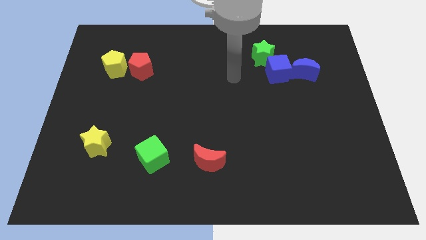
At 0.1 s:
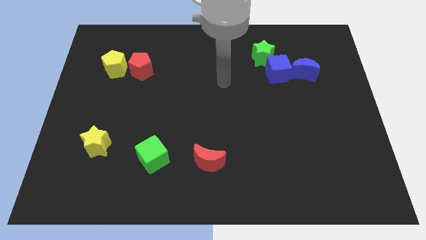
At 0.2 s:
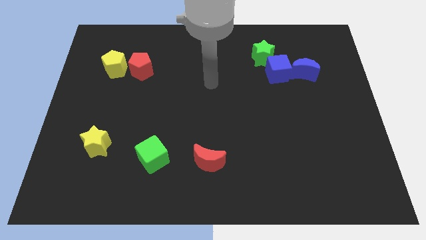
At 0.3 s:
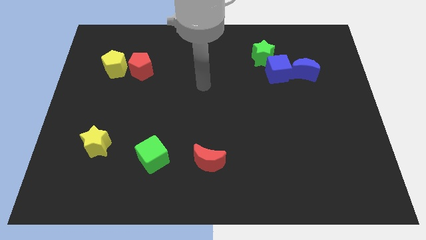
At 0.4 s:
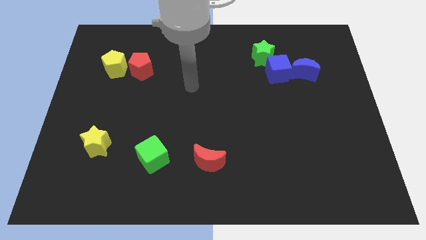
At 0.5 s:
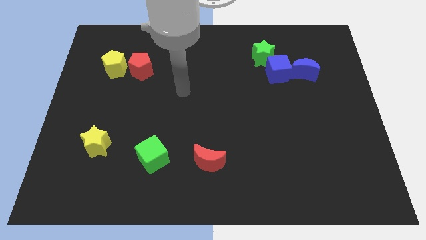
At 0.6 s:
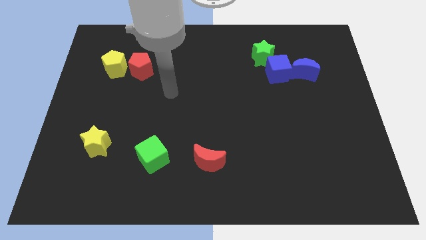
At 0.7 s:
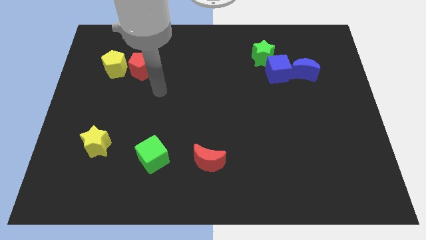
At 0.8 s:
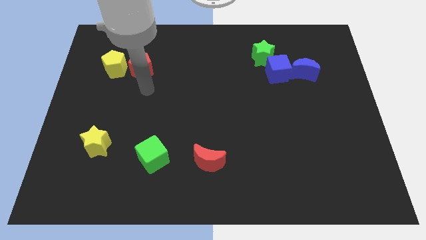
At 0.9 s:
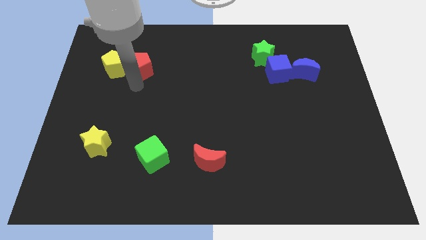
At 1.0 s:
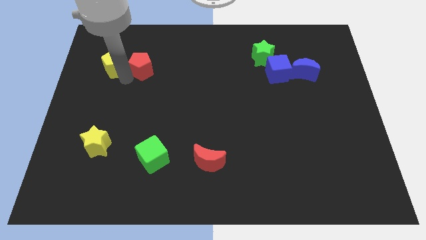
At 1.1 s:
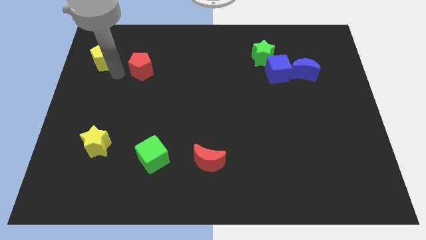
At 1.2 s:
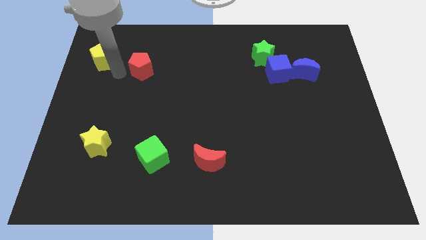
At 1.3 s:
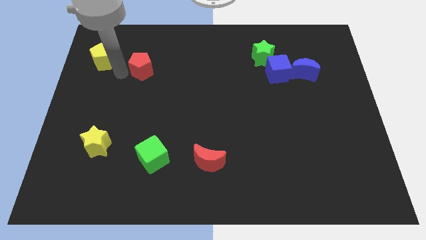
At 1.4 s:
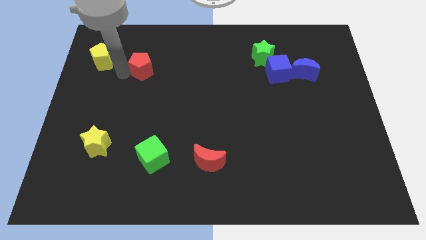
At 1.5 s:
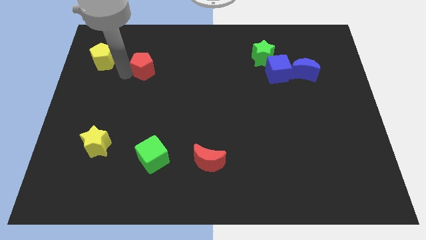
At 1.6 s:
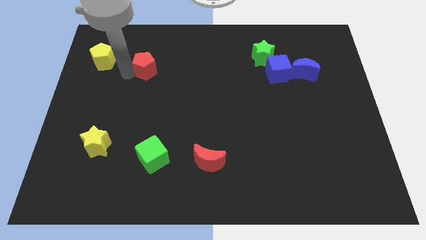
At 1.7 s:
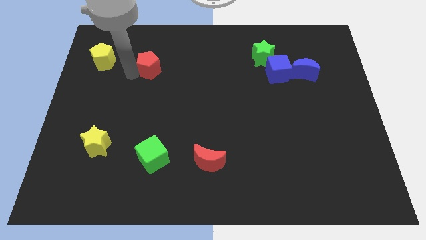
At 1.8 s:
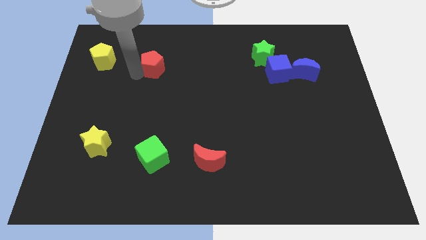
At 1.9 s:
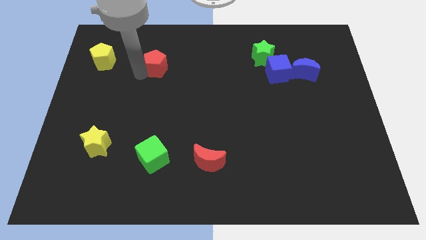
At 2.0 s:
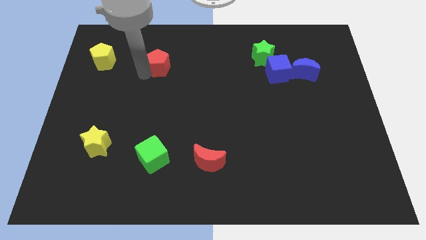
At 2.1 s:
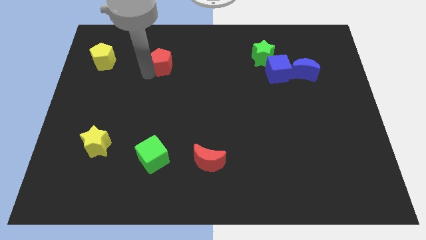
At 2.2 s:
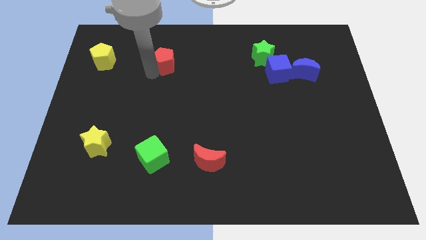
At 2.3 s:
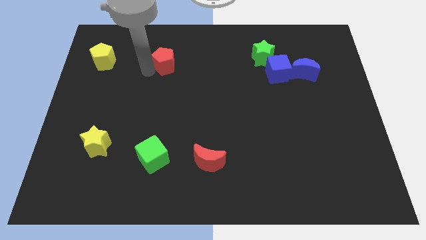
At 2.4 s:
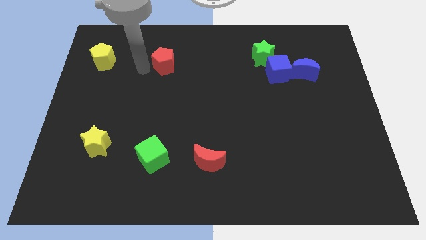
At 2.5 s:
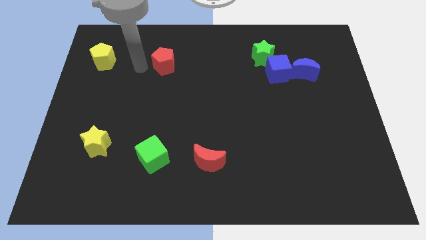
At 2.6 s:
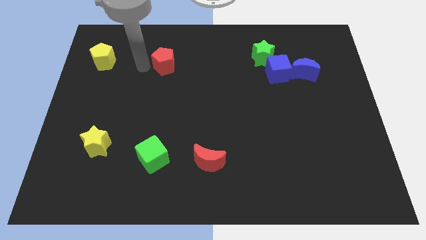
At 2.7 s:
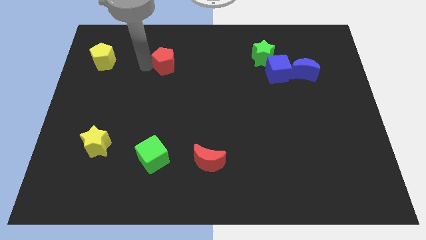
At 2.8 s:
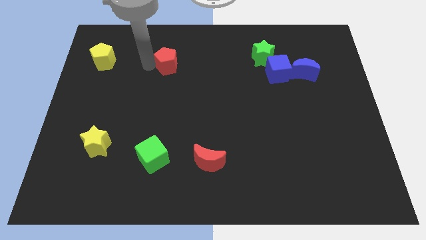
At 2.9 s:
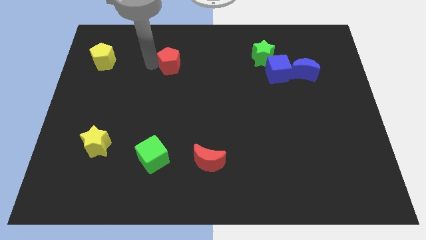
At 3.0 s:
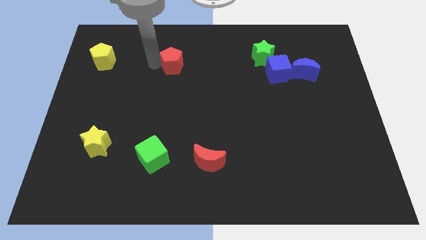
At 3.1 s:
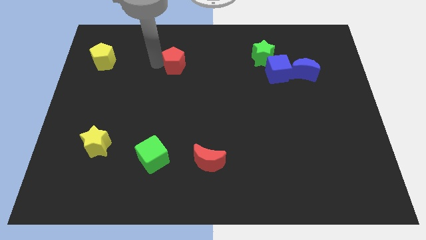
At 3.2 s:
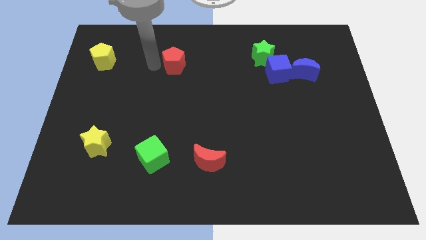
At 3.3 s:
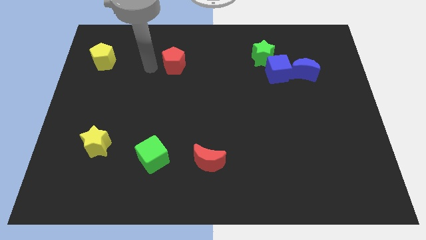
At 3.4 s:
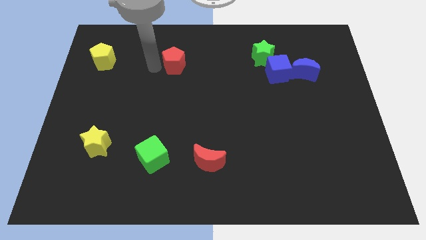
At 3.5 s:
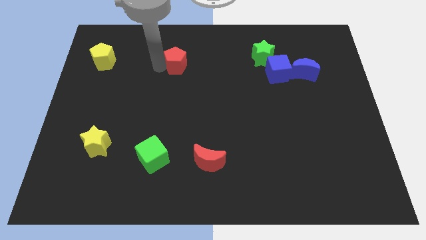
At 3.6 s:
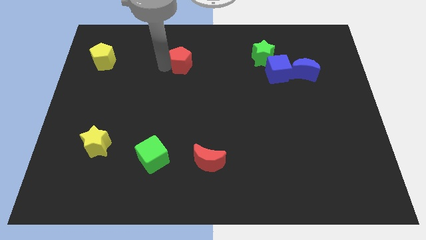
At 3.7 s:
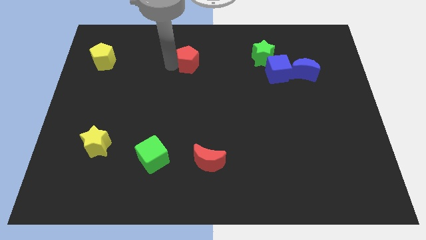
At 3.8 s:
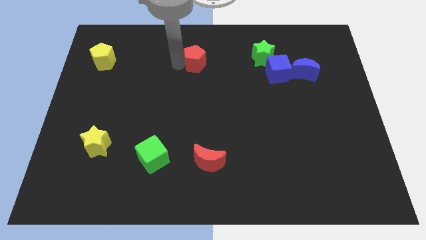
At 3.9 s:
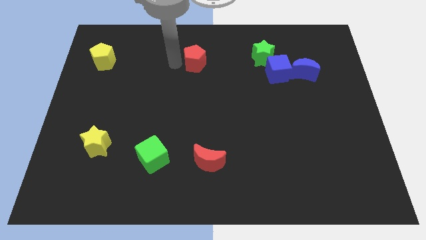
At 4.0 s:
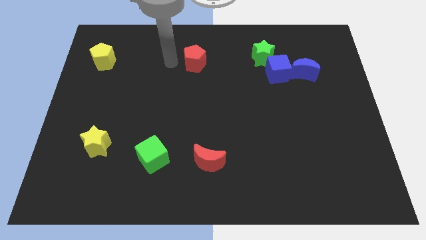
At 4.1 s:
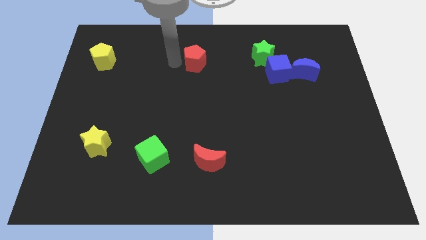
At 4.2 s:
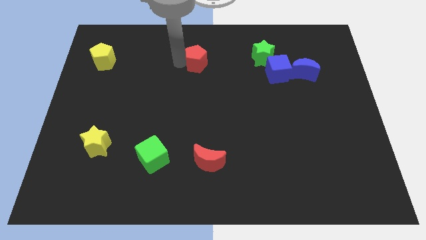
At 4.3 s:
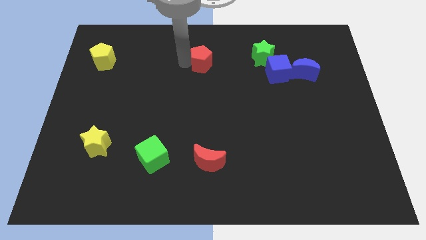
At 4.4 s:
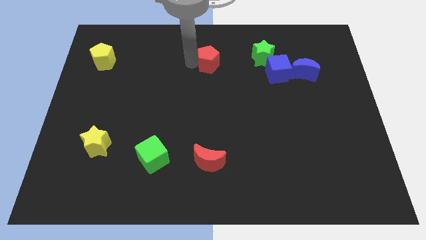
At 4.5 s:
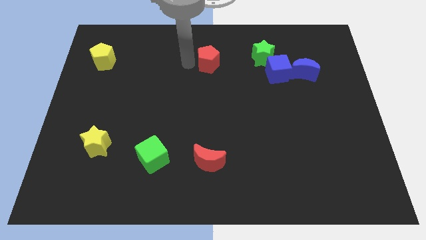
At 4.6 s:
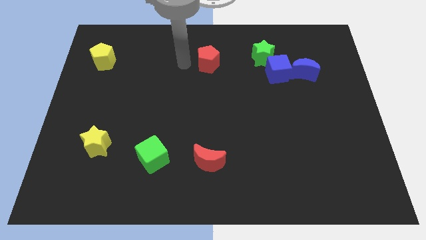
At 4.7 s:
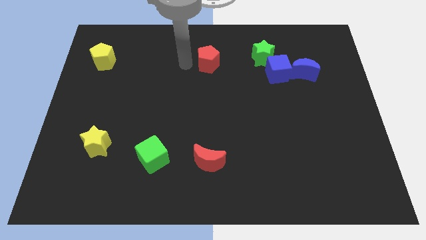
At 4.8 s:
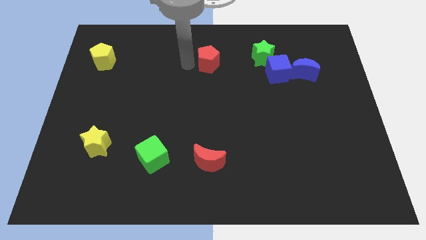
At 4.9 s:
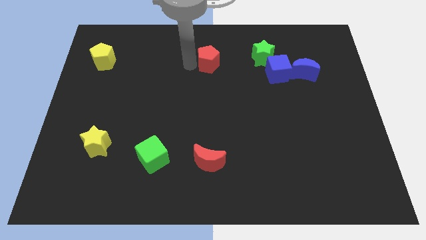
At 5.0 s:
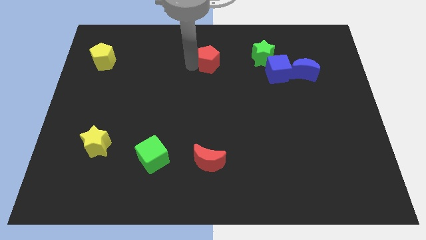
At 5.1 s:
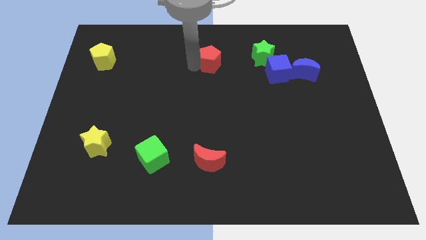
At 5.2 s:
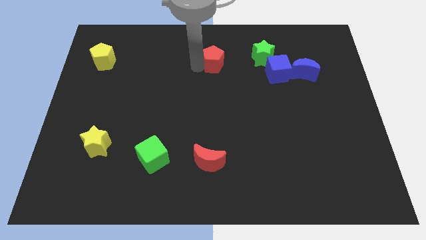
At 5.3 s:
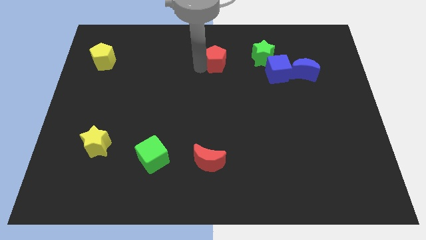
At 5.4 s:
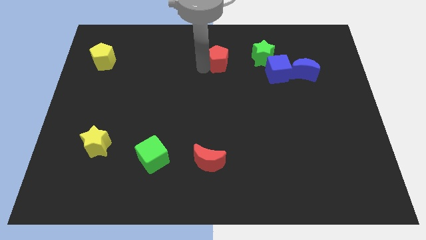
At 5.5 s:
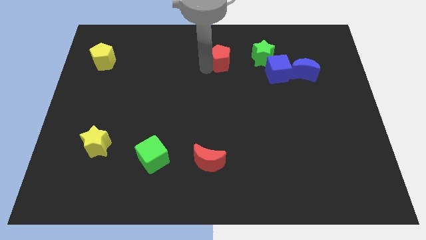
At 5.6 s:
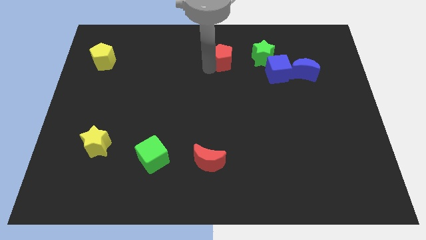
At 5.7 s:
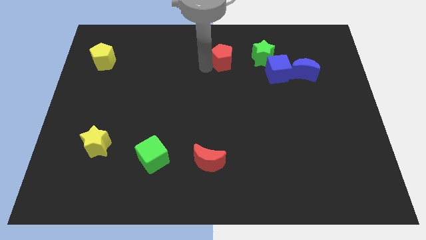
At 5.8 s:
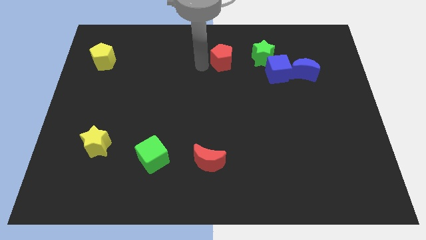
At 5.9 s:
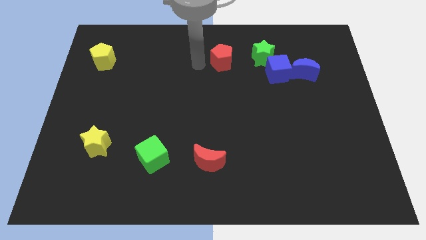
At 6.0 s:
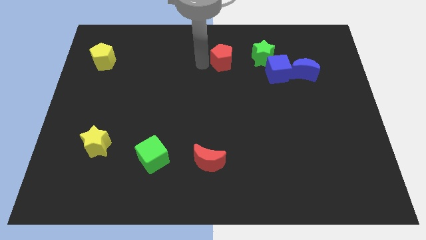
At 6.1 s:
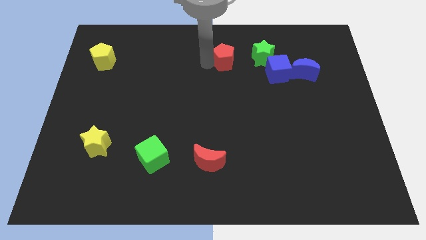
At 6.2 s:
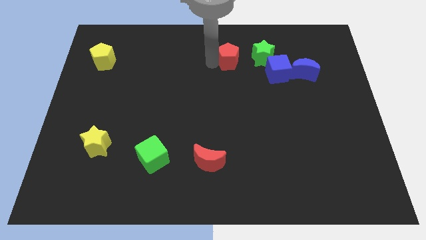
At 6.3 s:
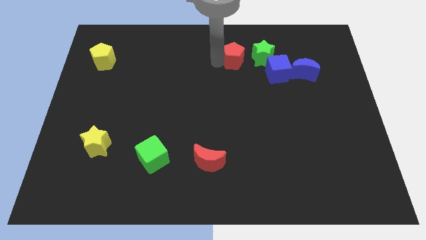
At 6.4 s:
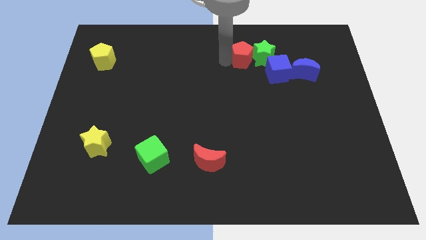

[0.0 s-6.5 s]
push the red pentagon next to the green star

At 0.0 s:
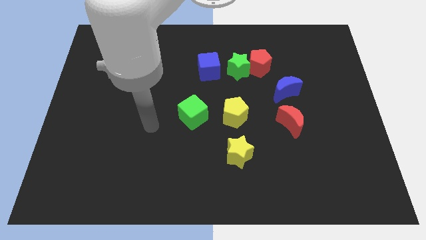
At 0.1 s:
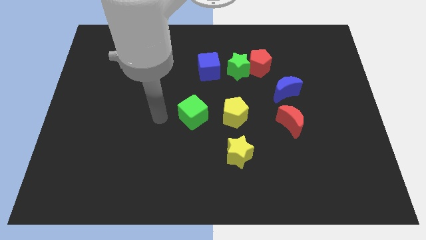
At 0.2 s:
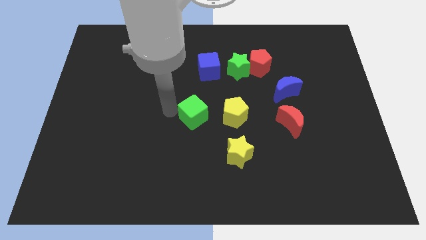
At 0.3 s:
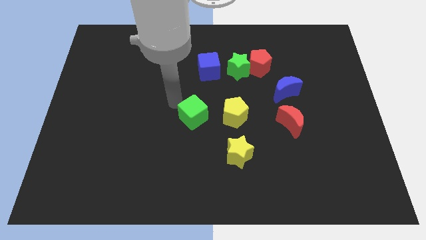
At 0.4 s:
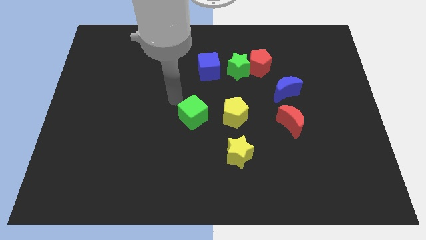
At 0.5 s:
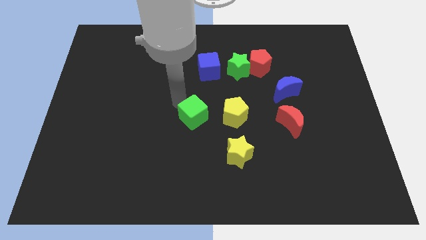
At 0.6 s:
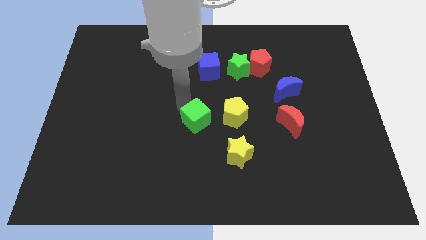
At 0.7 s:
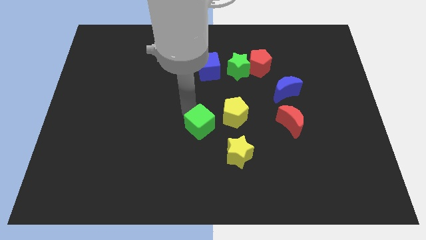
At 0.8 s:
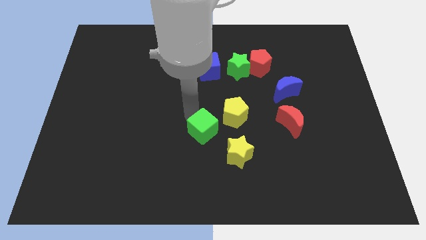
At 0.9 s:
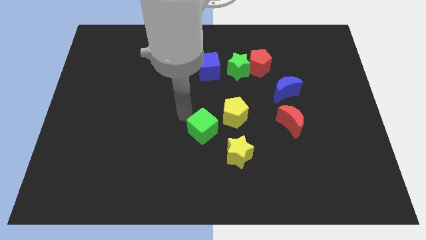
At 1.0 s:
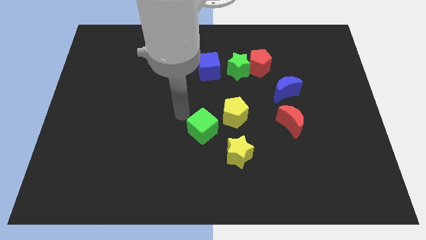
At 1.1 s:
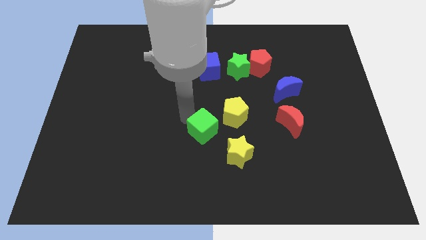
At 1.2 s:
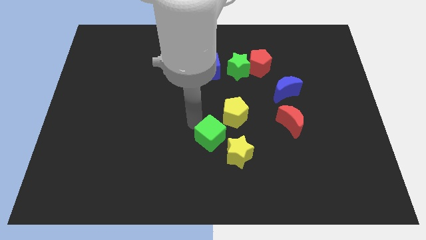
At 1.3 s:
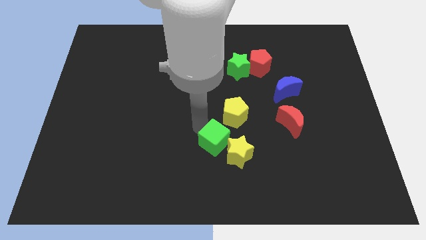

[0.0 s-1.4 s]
push the green cube towards the yellow star
